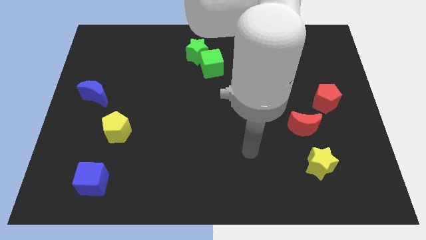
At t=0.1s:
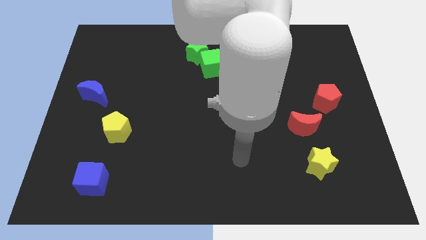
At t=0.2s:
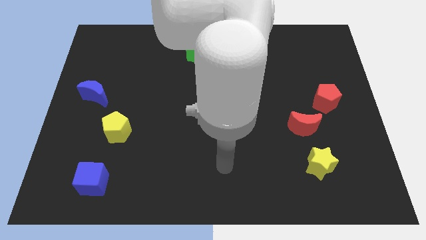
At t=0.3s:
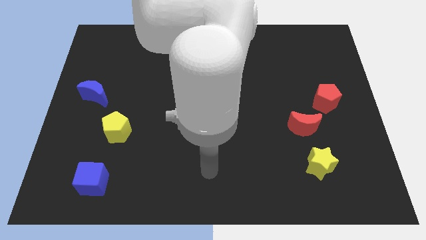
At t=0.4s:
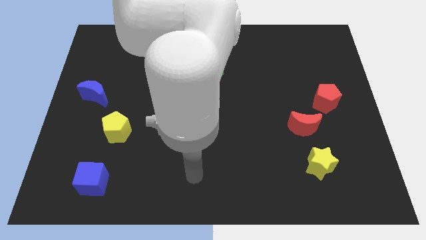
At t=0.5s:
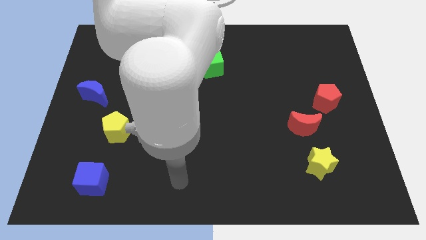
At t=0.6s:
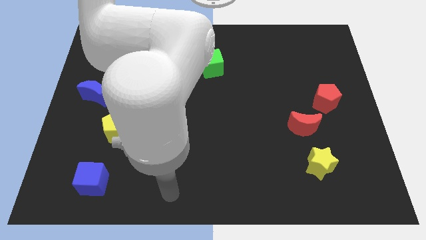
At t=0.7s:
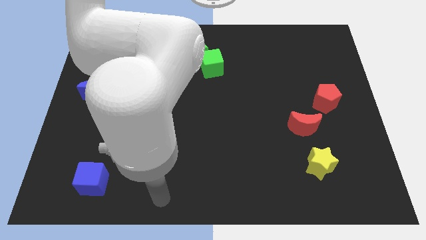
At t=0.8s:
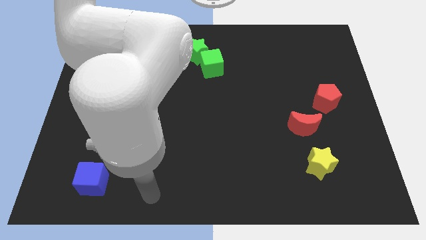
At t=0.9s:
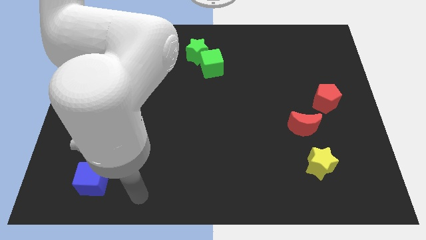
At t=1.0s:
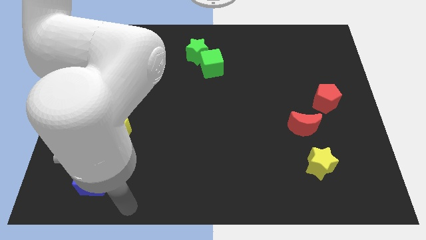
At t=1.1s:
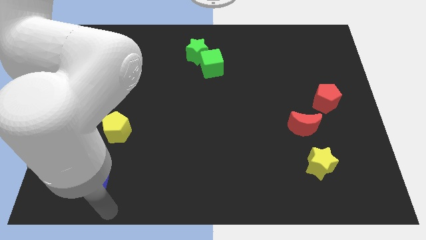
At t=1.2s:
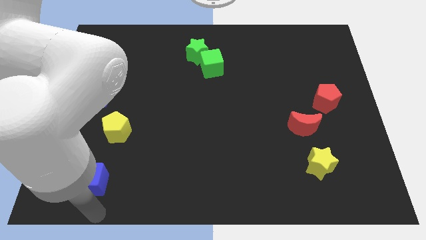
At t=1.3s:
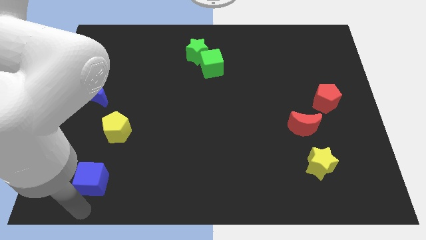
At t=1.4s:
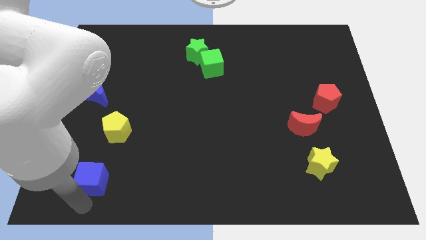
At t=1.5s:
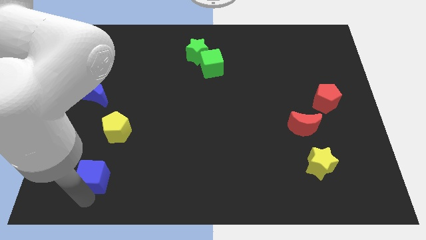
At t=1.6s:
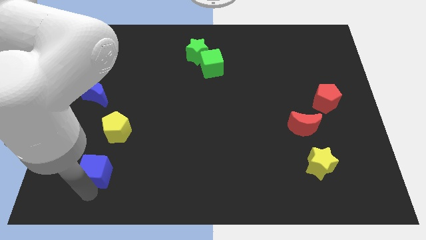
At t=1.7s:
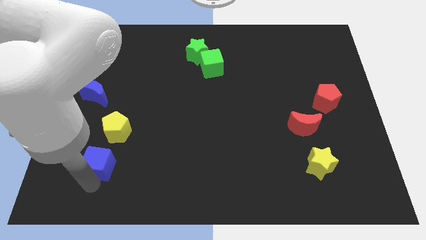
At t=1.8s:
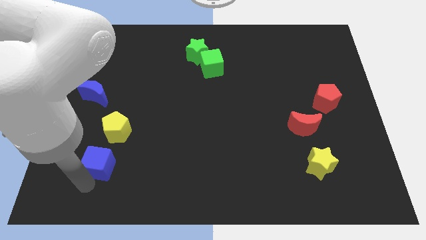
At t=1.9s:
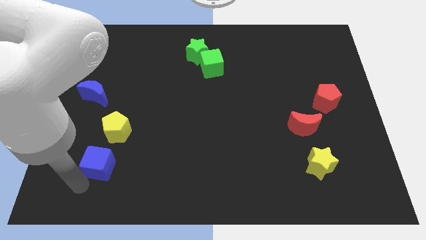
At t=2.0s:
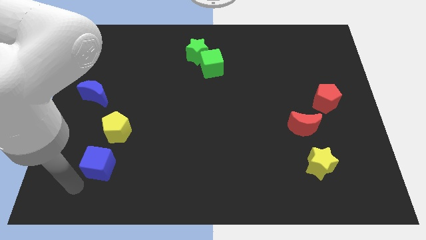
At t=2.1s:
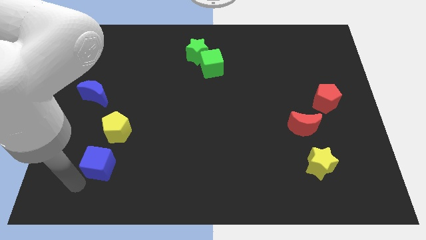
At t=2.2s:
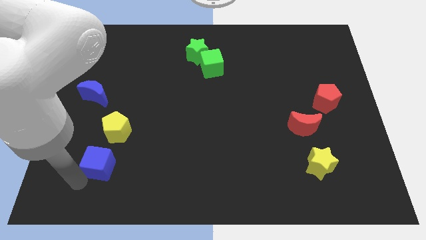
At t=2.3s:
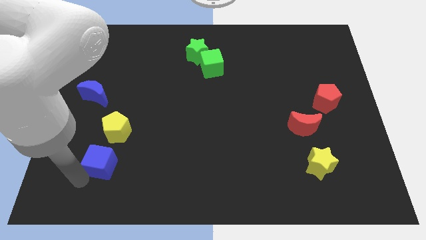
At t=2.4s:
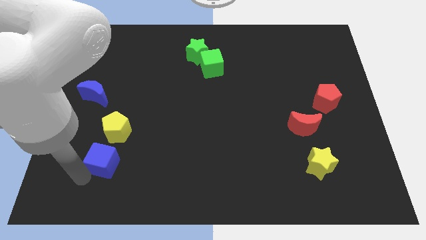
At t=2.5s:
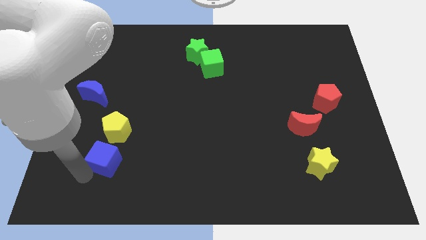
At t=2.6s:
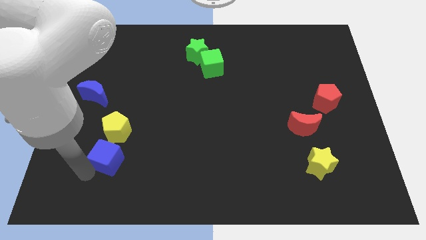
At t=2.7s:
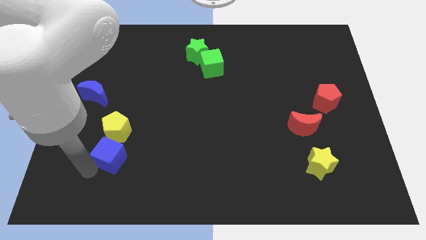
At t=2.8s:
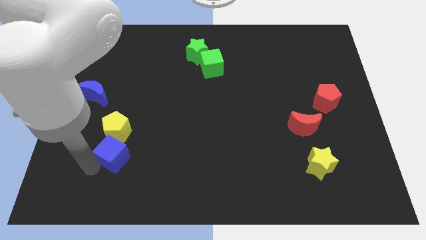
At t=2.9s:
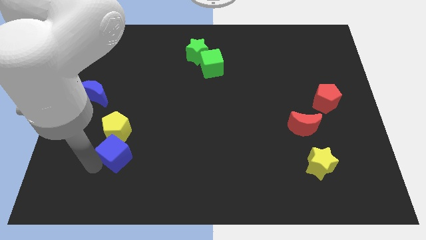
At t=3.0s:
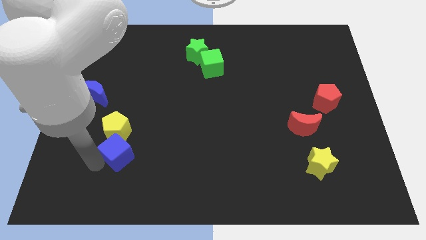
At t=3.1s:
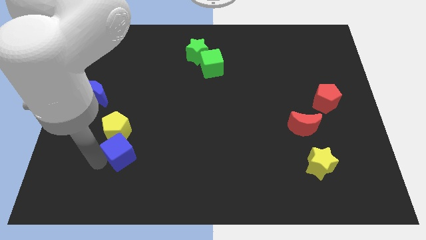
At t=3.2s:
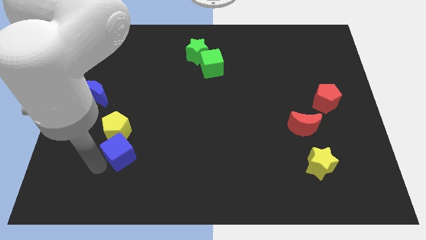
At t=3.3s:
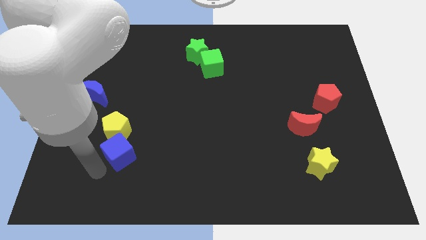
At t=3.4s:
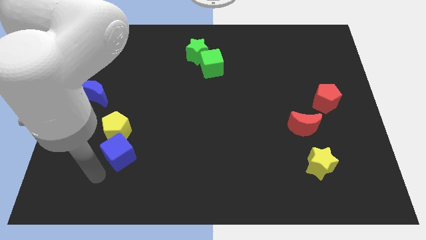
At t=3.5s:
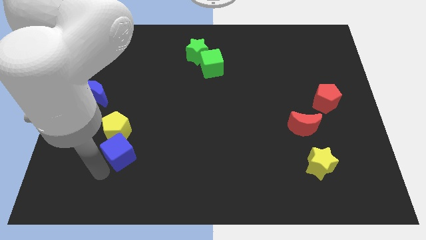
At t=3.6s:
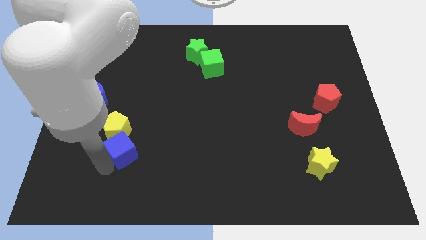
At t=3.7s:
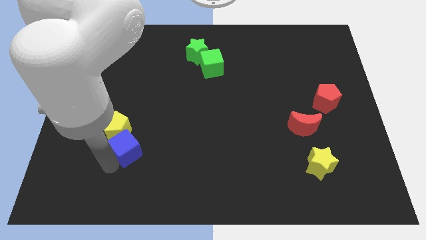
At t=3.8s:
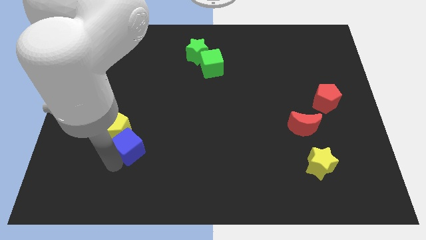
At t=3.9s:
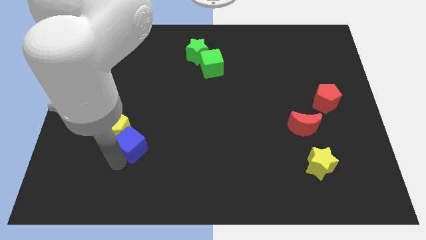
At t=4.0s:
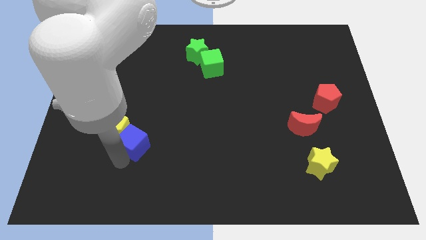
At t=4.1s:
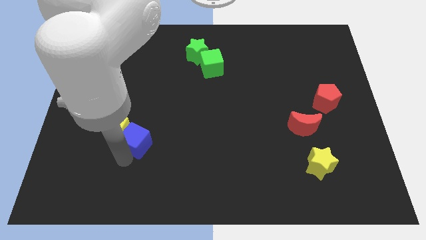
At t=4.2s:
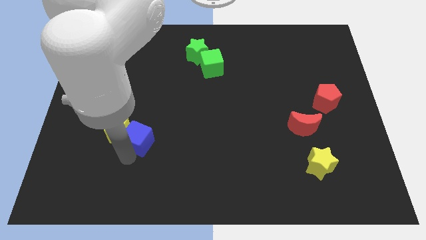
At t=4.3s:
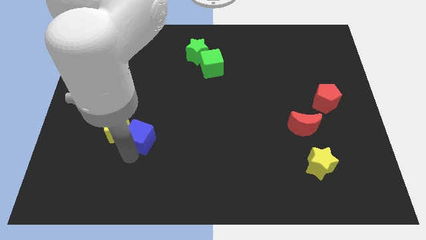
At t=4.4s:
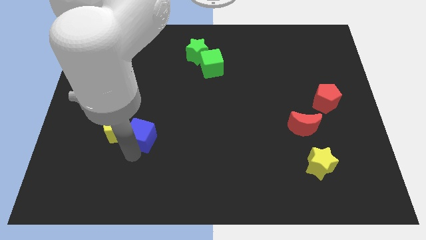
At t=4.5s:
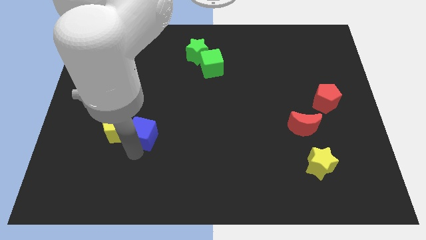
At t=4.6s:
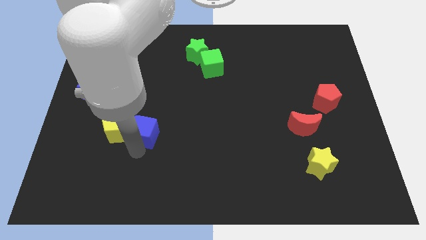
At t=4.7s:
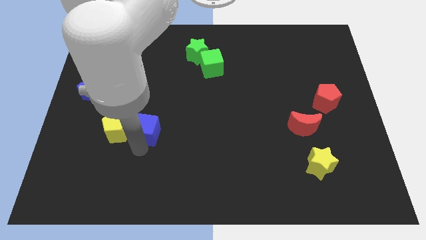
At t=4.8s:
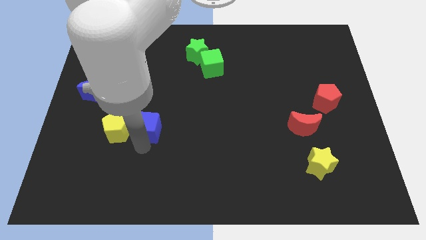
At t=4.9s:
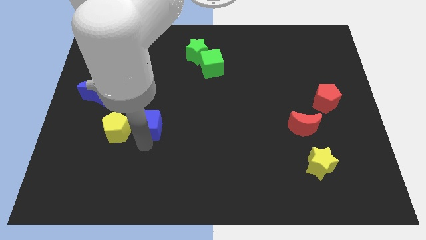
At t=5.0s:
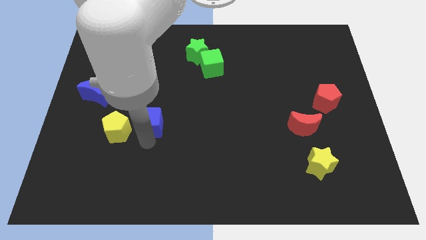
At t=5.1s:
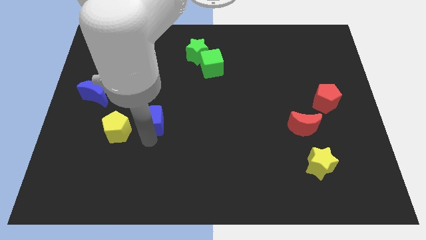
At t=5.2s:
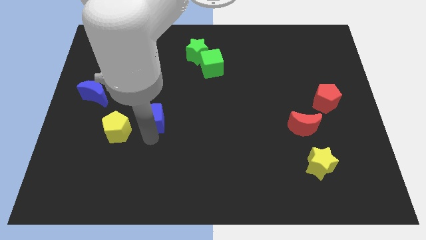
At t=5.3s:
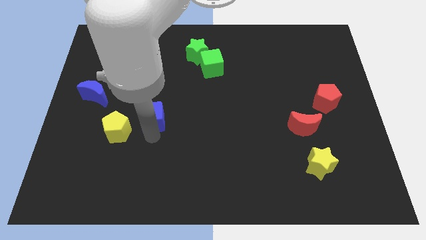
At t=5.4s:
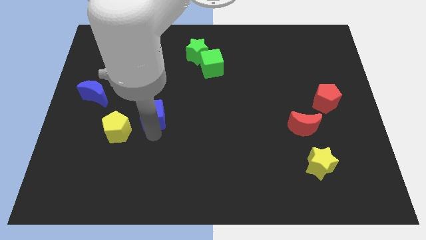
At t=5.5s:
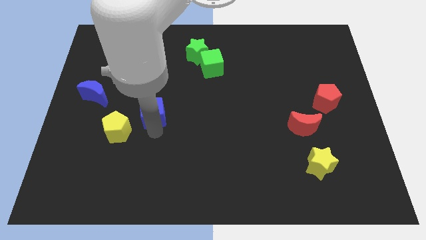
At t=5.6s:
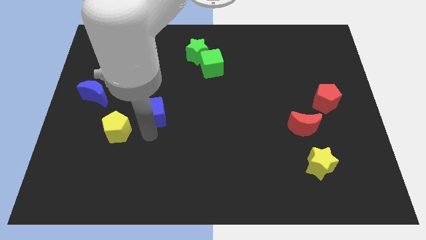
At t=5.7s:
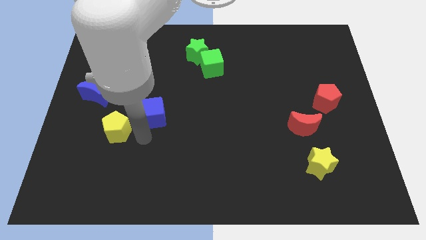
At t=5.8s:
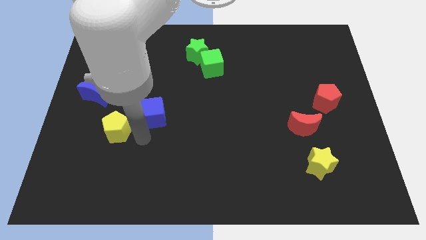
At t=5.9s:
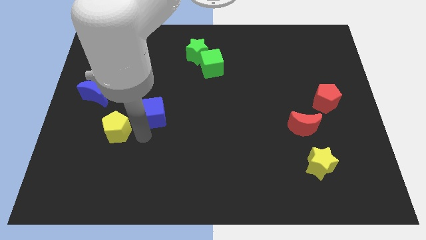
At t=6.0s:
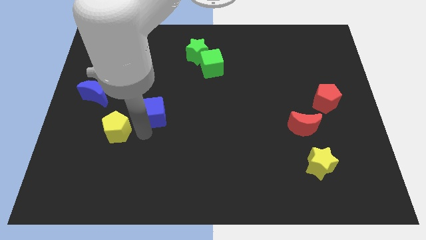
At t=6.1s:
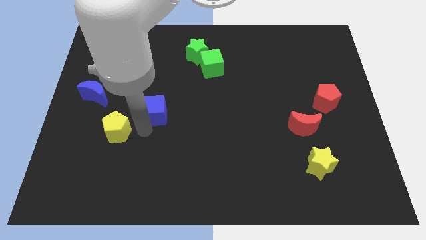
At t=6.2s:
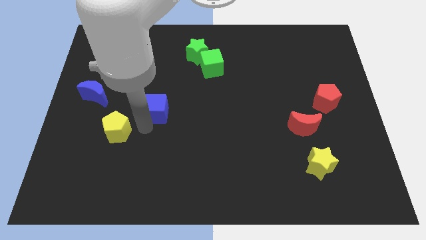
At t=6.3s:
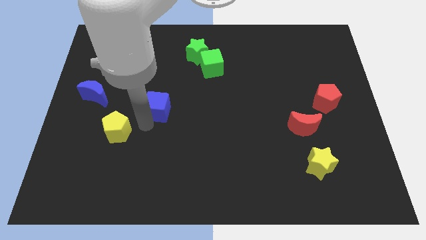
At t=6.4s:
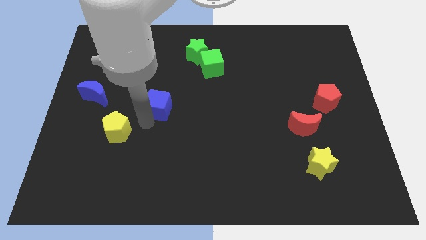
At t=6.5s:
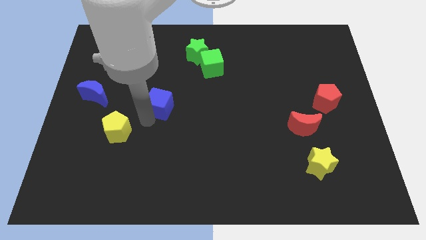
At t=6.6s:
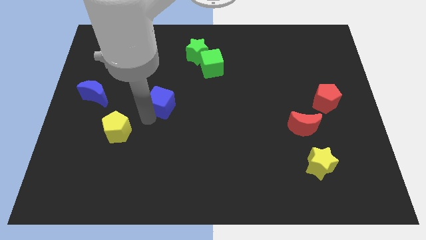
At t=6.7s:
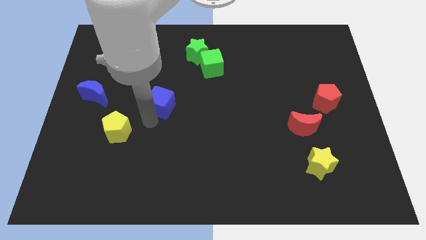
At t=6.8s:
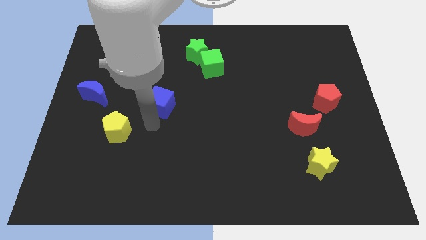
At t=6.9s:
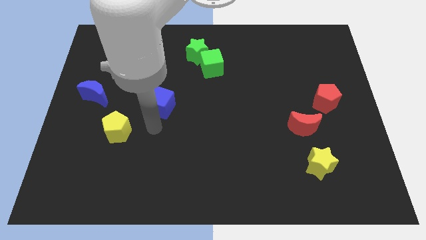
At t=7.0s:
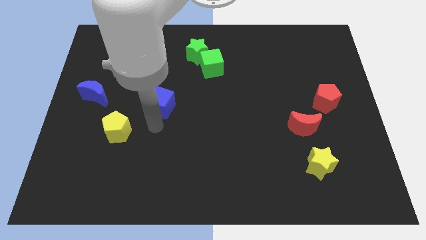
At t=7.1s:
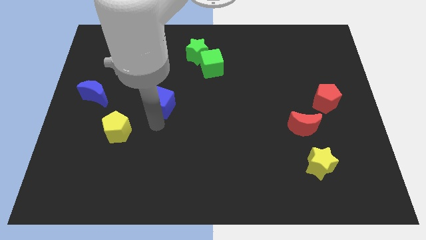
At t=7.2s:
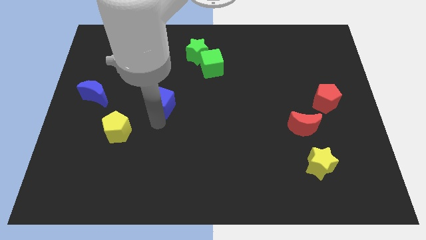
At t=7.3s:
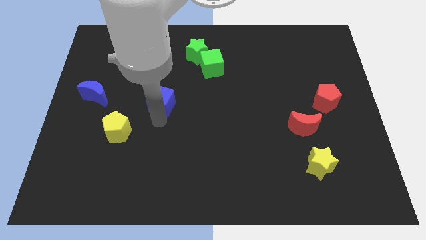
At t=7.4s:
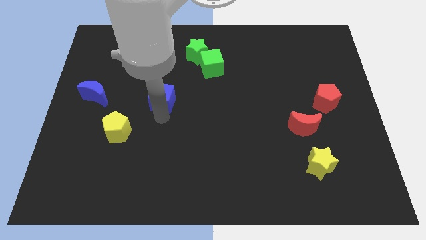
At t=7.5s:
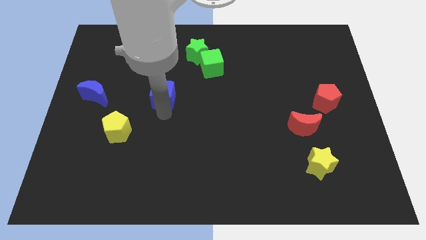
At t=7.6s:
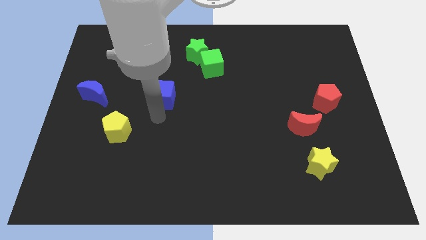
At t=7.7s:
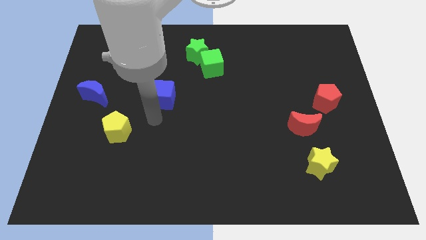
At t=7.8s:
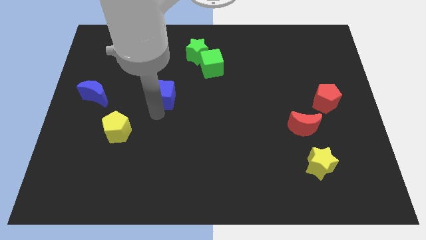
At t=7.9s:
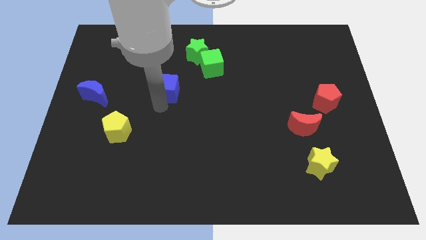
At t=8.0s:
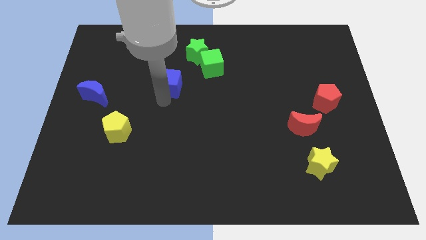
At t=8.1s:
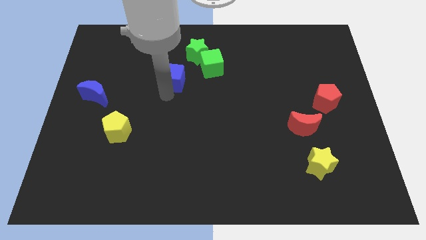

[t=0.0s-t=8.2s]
push the blue cube diagonally down and to the left of the green star

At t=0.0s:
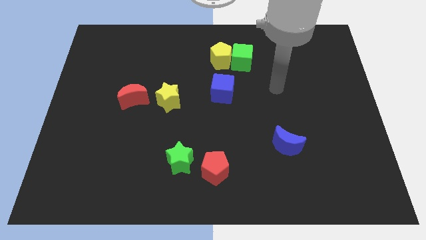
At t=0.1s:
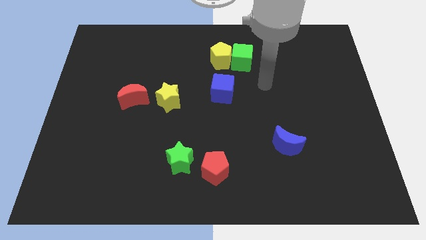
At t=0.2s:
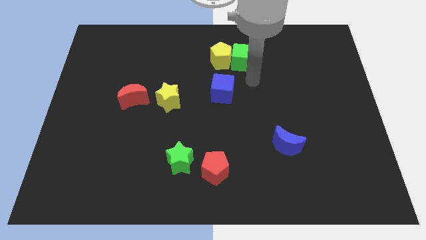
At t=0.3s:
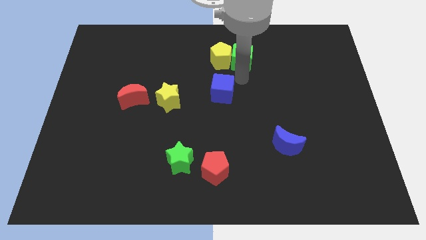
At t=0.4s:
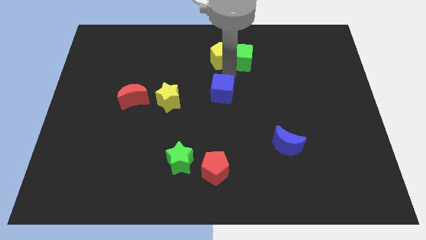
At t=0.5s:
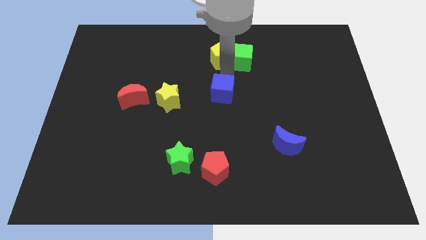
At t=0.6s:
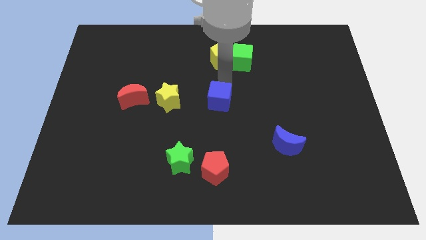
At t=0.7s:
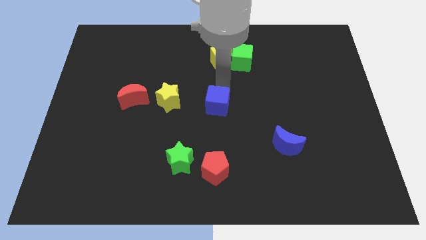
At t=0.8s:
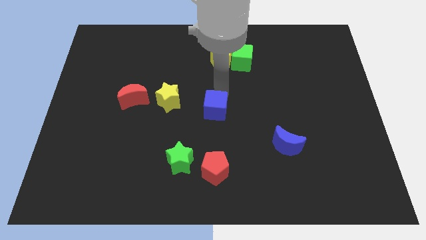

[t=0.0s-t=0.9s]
slide the blue cube to the top side of the red pentagon
